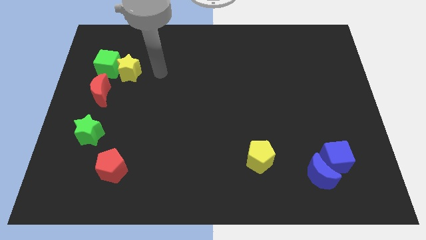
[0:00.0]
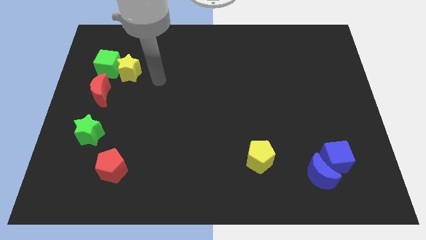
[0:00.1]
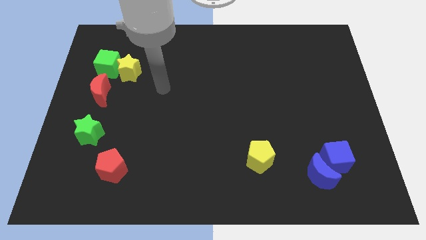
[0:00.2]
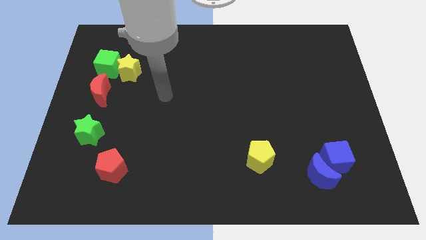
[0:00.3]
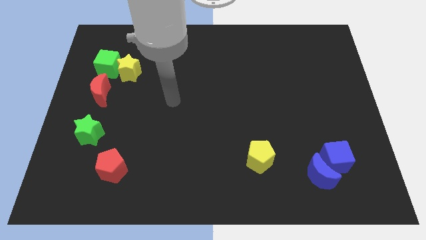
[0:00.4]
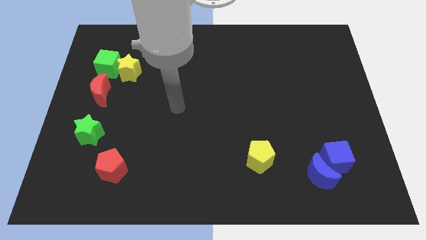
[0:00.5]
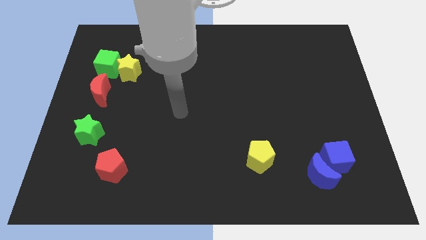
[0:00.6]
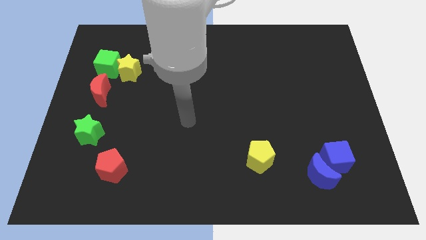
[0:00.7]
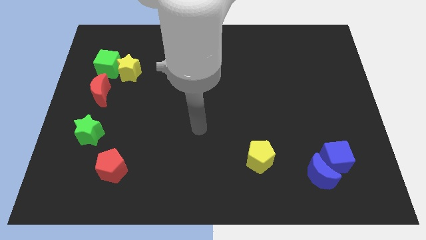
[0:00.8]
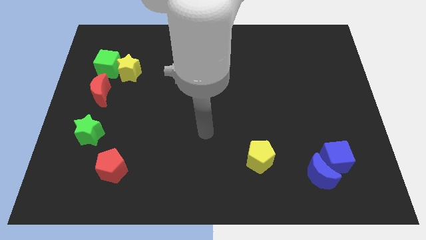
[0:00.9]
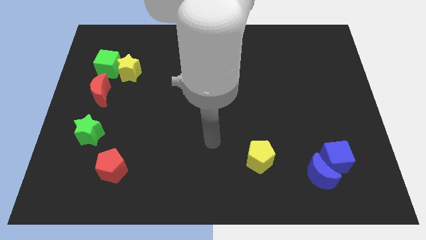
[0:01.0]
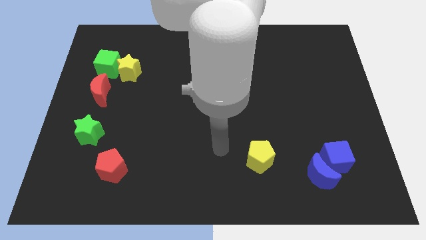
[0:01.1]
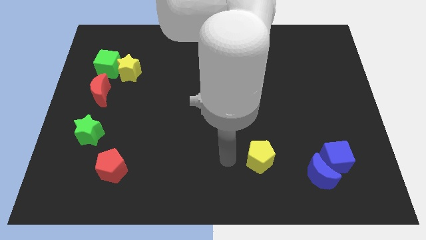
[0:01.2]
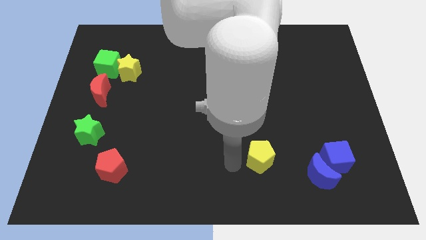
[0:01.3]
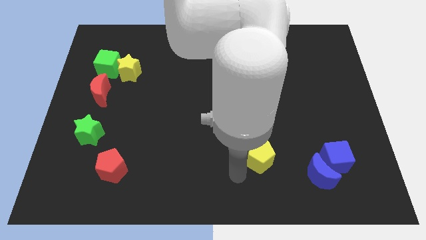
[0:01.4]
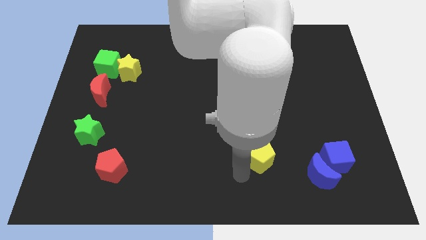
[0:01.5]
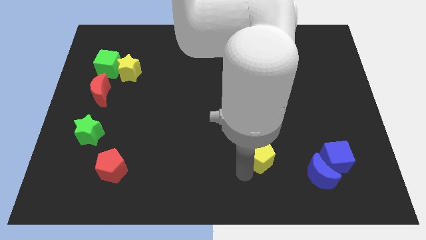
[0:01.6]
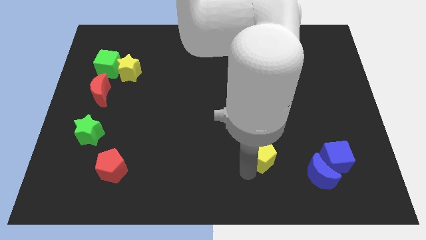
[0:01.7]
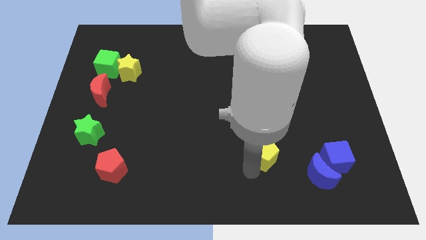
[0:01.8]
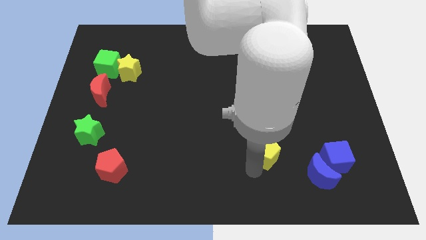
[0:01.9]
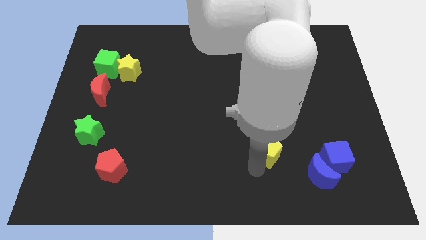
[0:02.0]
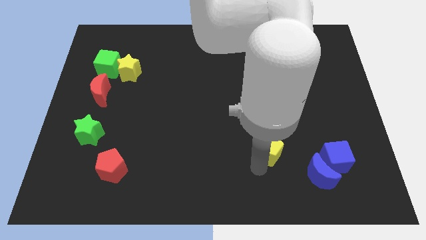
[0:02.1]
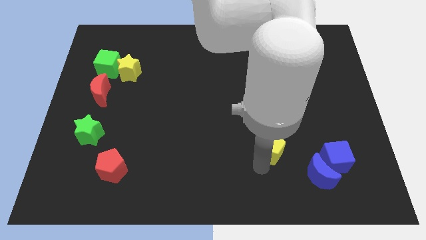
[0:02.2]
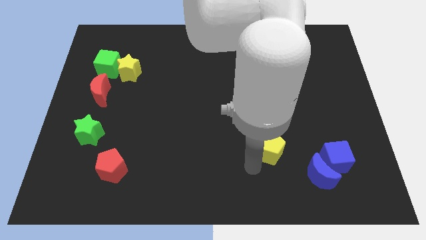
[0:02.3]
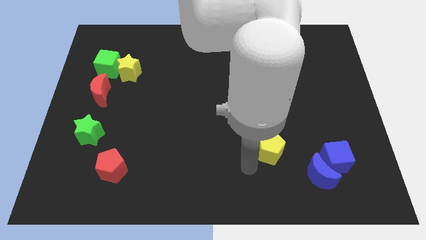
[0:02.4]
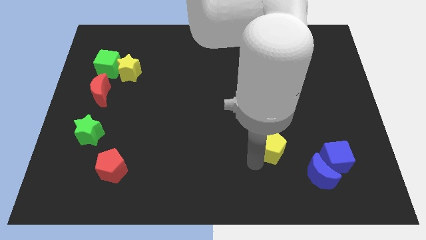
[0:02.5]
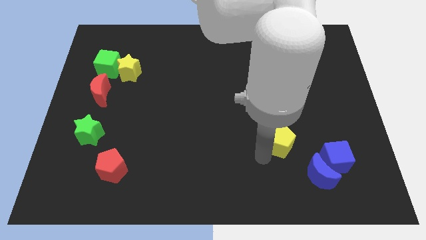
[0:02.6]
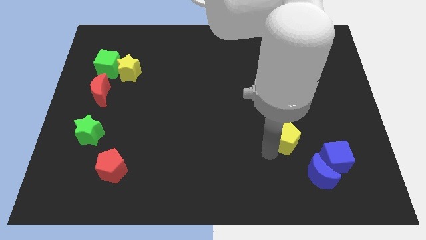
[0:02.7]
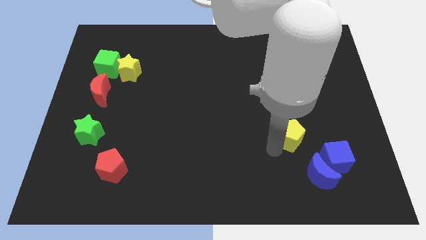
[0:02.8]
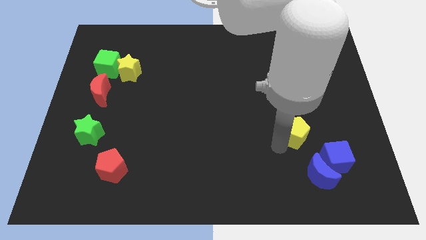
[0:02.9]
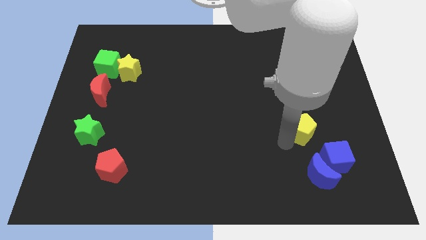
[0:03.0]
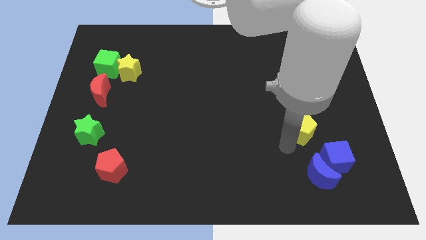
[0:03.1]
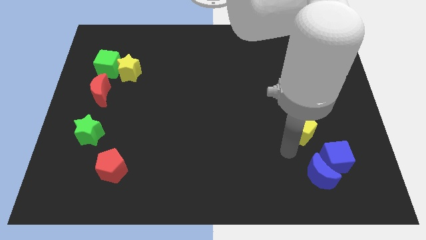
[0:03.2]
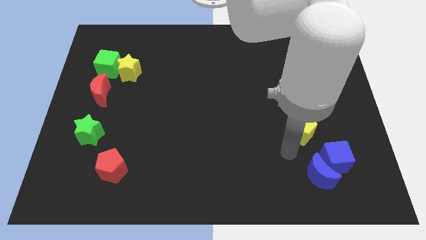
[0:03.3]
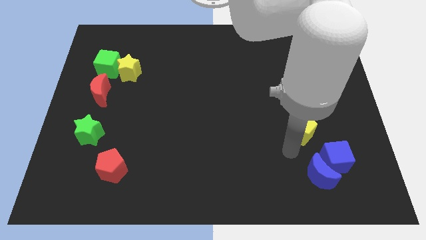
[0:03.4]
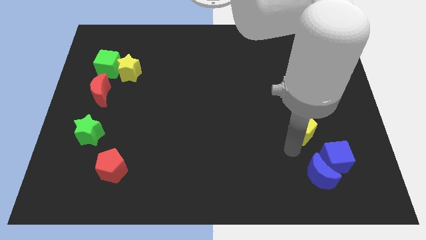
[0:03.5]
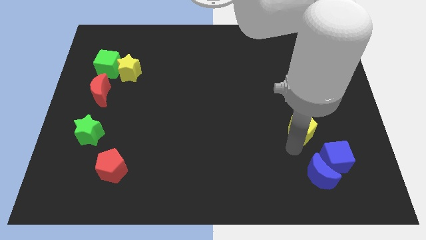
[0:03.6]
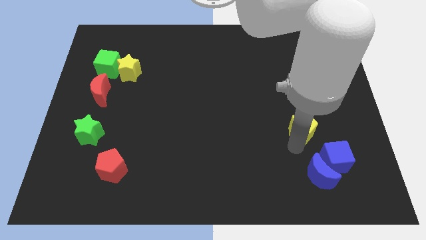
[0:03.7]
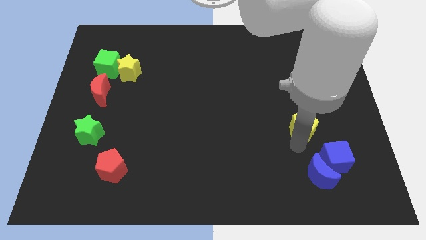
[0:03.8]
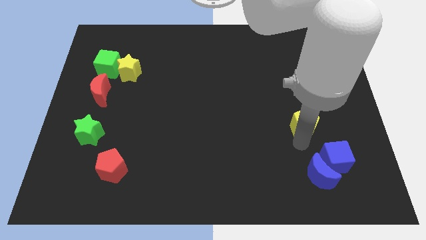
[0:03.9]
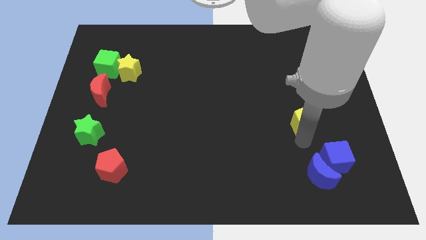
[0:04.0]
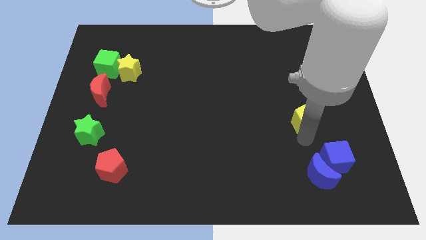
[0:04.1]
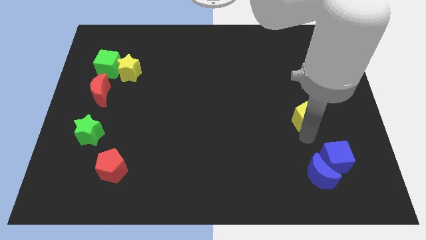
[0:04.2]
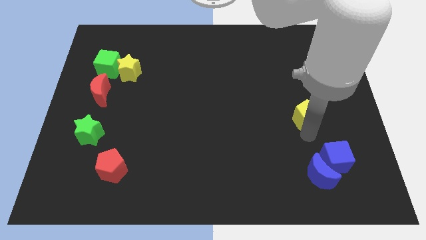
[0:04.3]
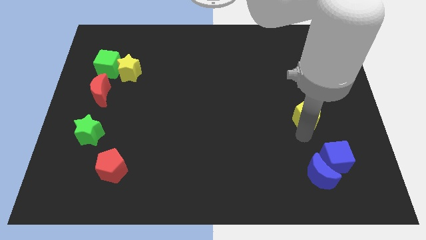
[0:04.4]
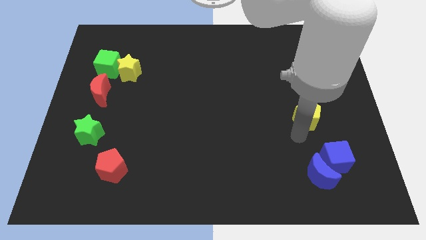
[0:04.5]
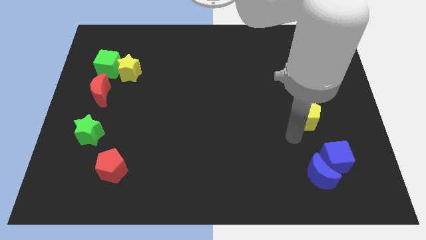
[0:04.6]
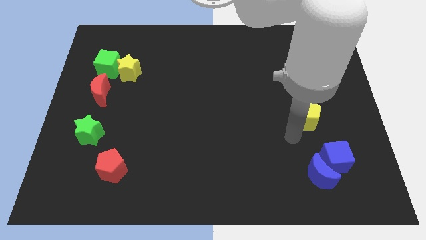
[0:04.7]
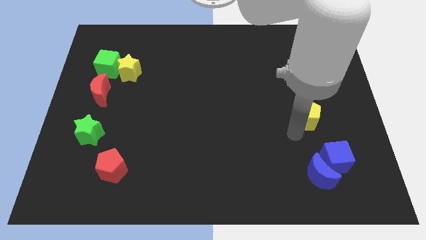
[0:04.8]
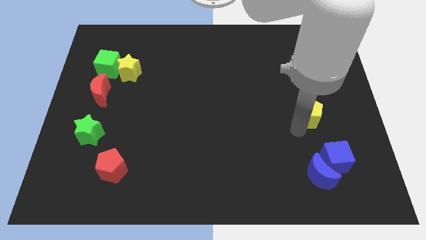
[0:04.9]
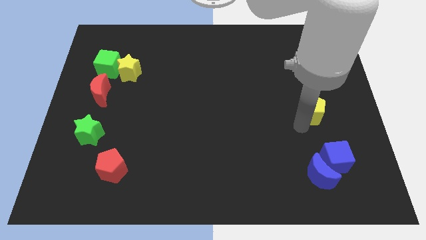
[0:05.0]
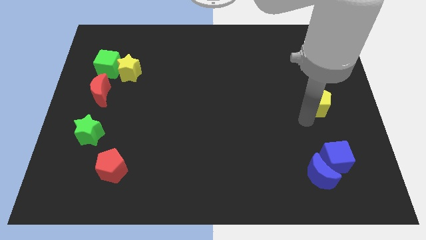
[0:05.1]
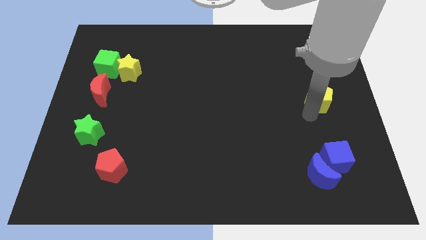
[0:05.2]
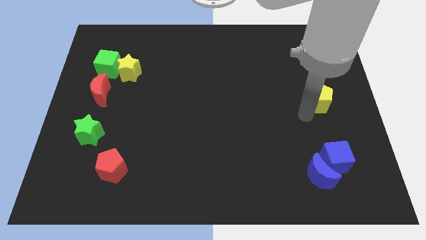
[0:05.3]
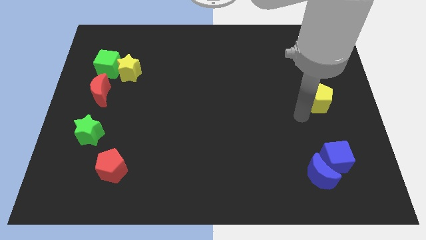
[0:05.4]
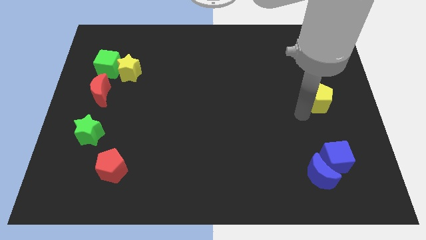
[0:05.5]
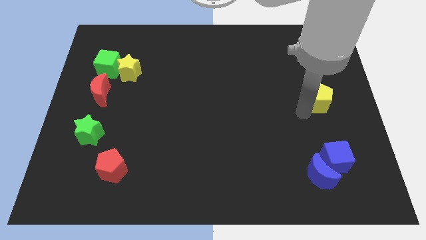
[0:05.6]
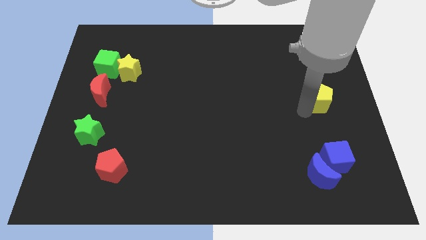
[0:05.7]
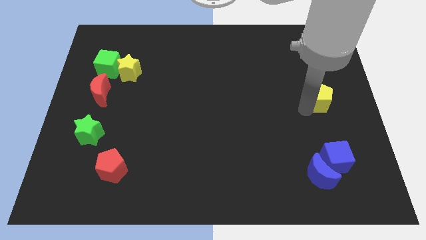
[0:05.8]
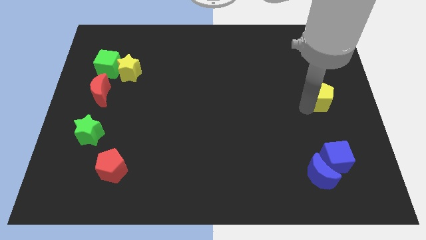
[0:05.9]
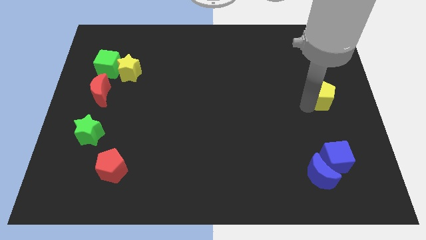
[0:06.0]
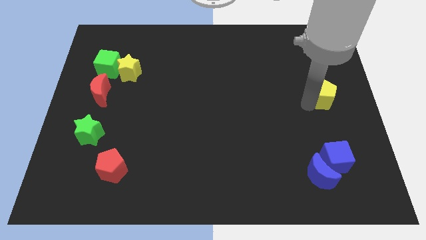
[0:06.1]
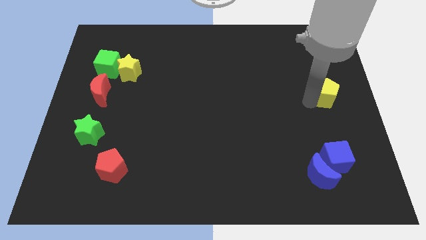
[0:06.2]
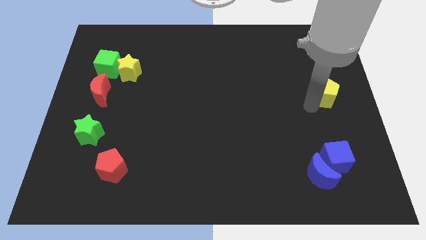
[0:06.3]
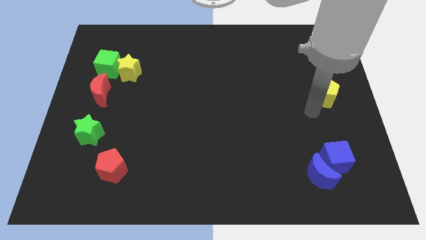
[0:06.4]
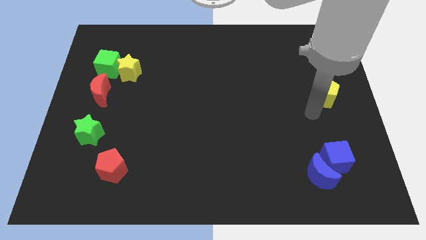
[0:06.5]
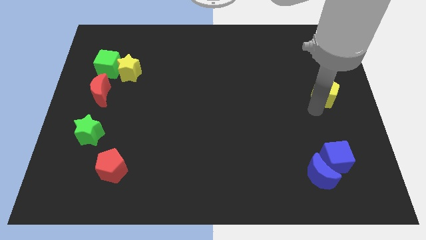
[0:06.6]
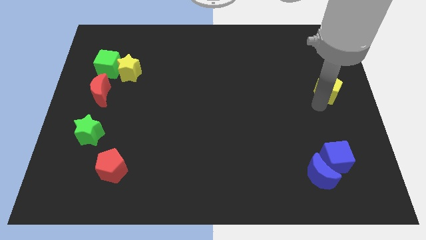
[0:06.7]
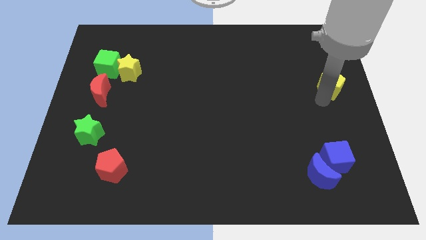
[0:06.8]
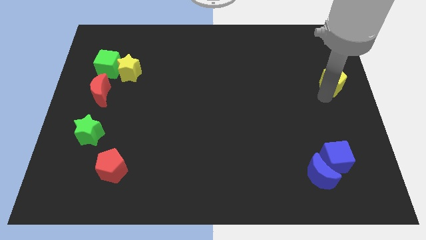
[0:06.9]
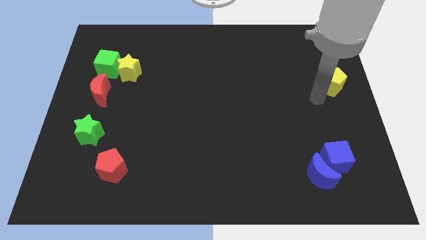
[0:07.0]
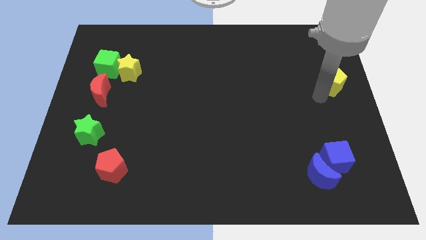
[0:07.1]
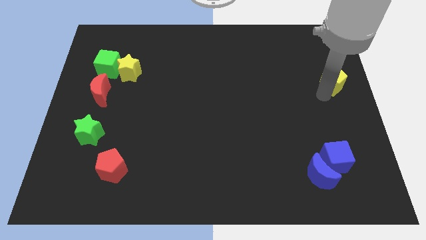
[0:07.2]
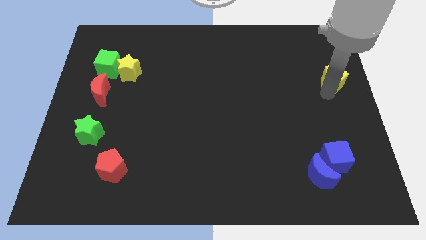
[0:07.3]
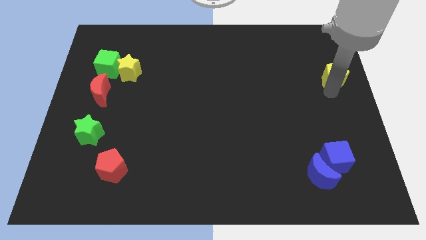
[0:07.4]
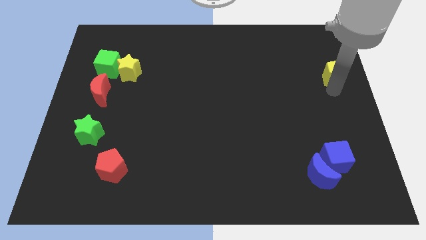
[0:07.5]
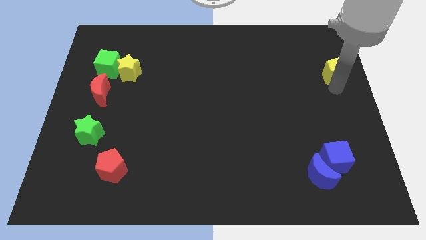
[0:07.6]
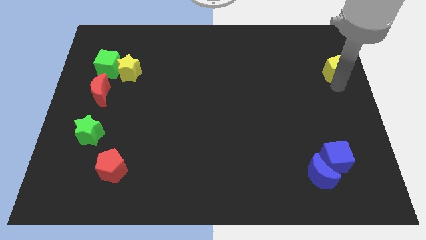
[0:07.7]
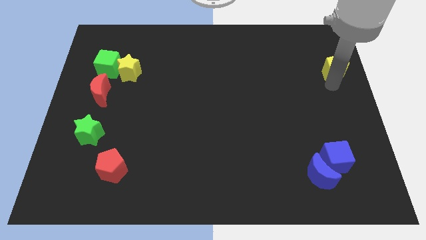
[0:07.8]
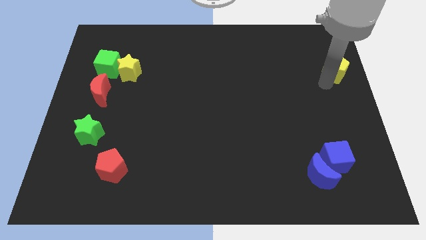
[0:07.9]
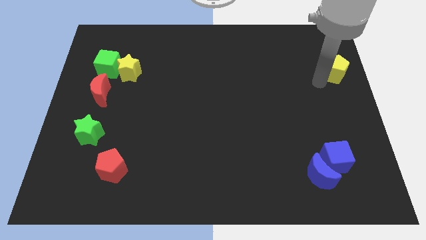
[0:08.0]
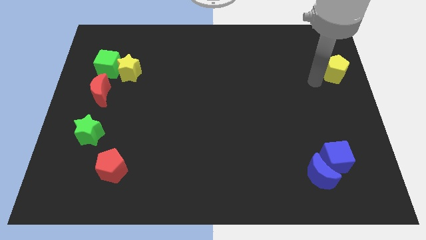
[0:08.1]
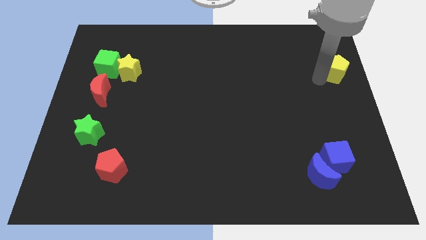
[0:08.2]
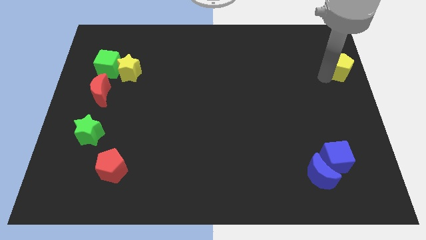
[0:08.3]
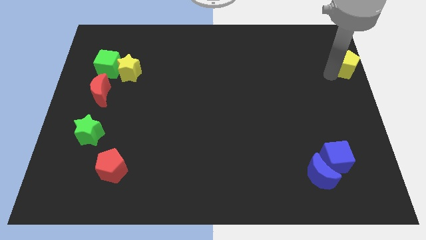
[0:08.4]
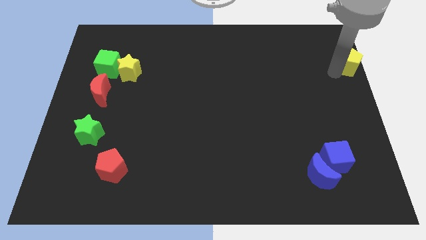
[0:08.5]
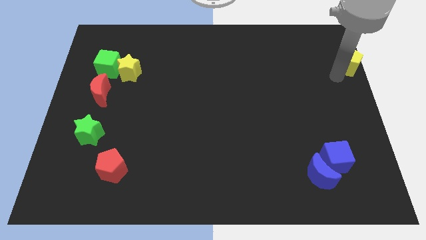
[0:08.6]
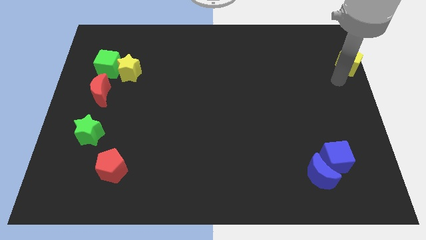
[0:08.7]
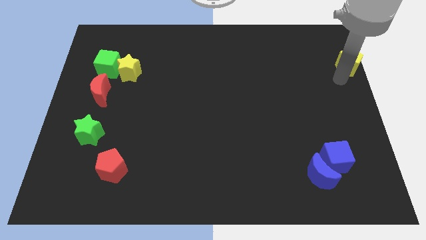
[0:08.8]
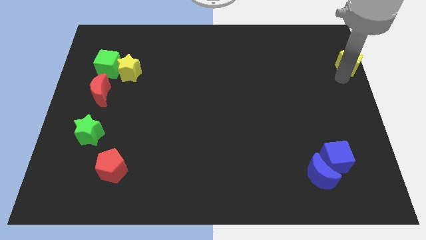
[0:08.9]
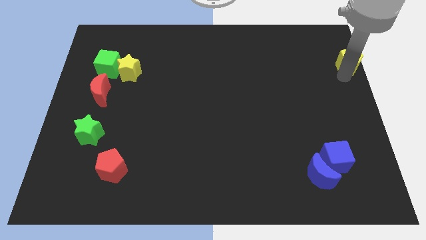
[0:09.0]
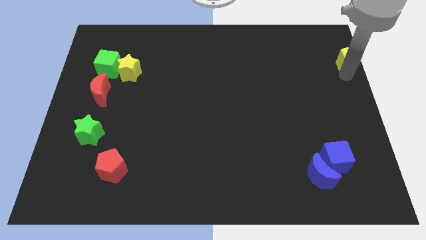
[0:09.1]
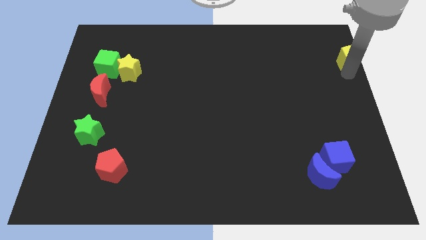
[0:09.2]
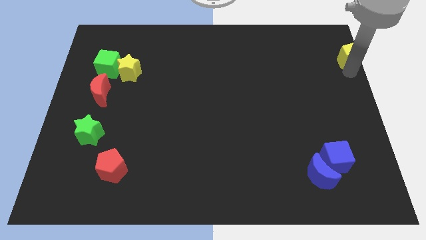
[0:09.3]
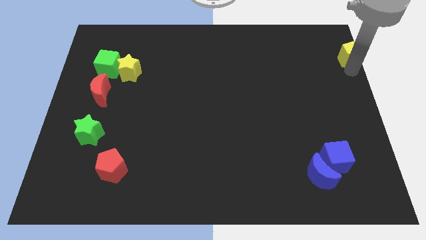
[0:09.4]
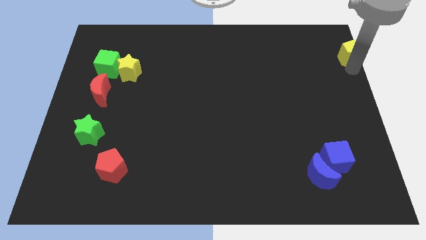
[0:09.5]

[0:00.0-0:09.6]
put the yellow pentagon to the top right of the board
